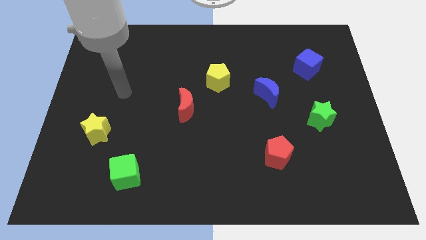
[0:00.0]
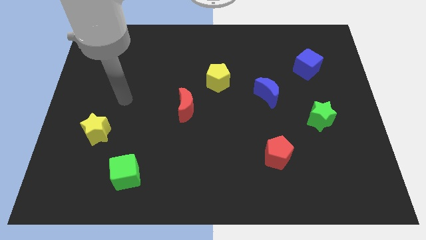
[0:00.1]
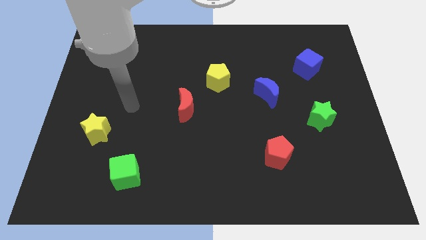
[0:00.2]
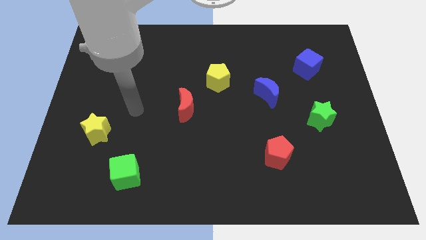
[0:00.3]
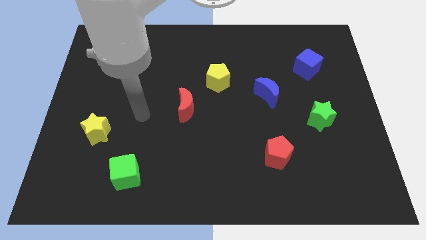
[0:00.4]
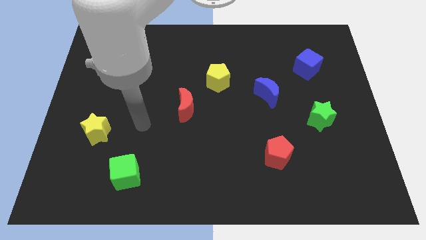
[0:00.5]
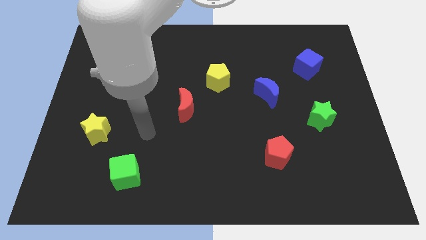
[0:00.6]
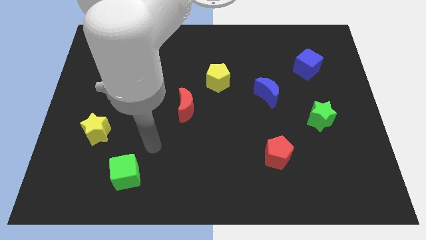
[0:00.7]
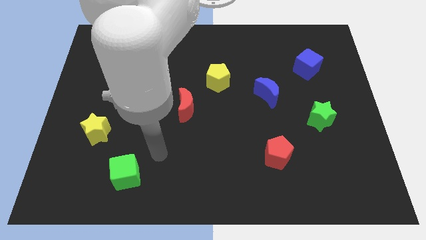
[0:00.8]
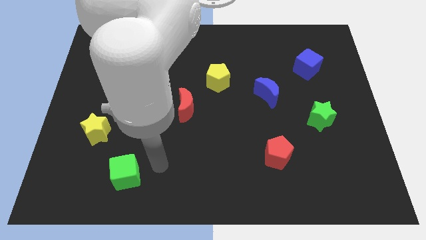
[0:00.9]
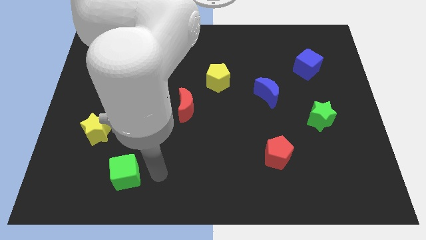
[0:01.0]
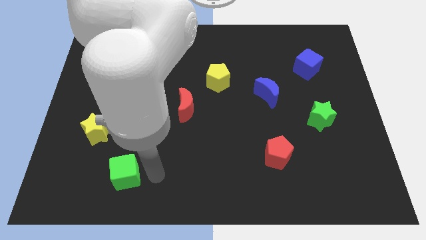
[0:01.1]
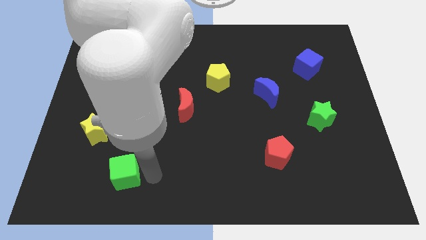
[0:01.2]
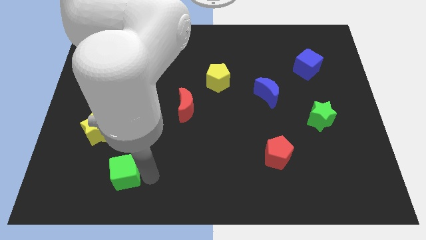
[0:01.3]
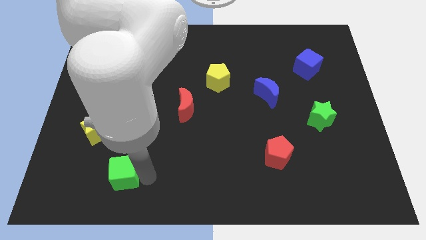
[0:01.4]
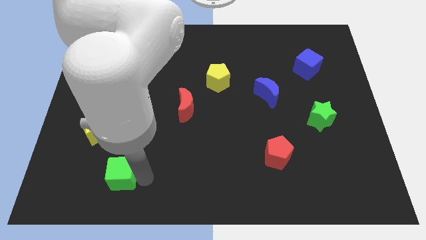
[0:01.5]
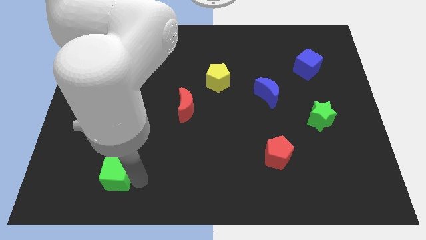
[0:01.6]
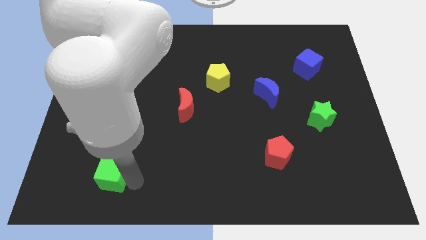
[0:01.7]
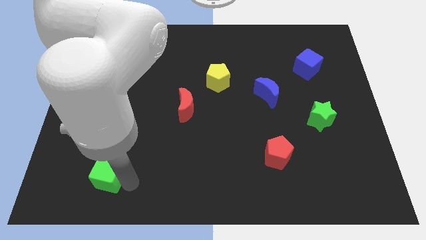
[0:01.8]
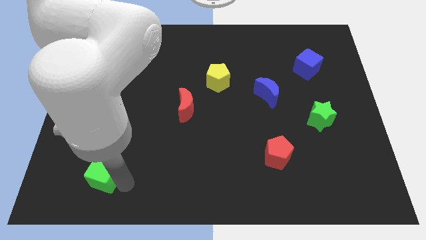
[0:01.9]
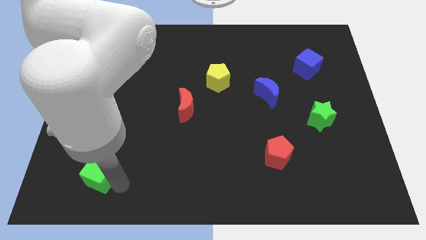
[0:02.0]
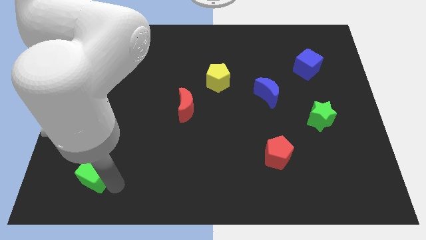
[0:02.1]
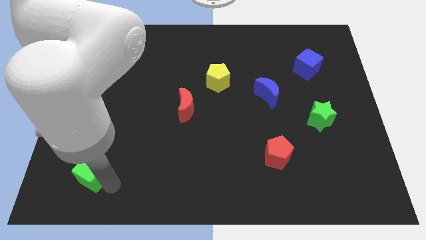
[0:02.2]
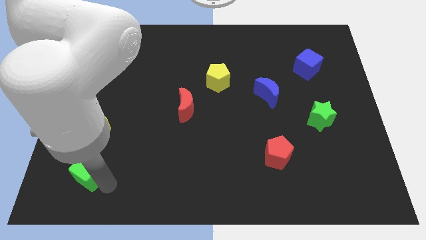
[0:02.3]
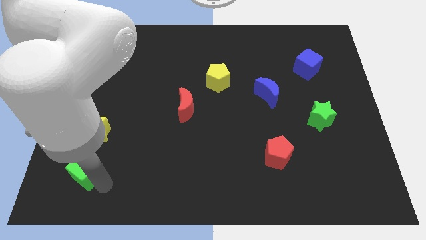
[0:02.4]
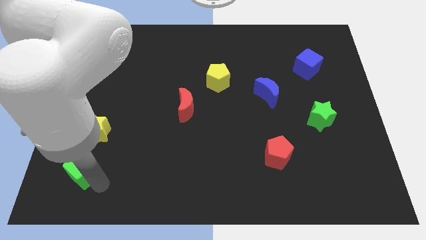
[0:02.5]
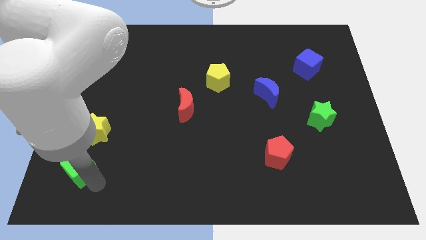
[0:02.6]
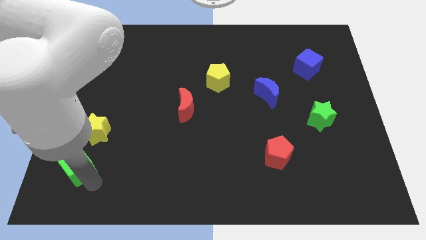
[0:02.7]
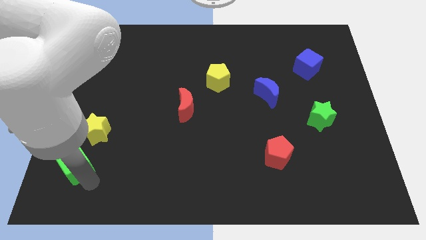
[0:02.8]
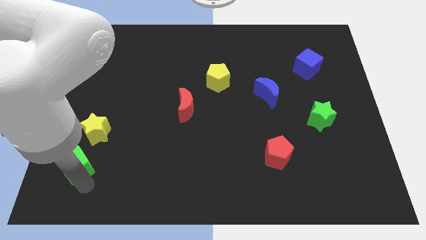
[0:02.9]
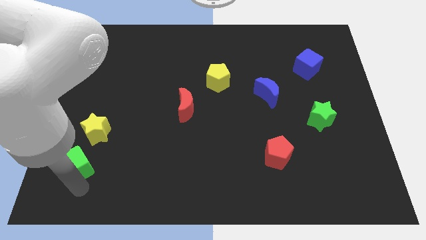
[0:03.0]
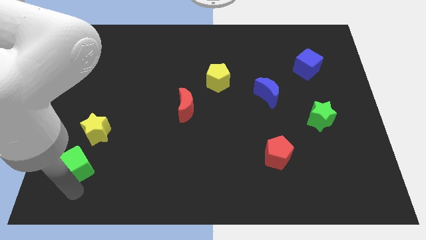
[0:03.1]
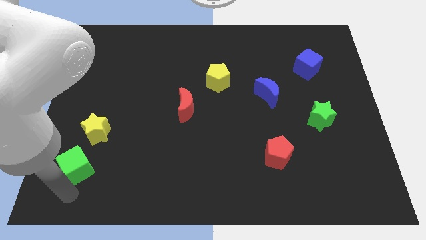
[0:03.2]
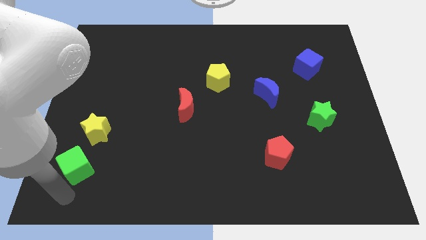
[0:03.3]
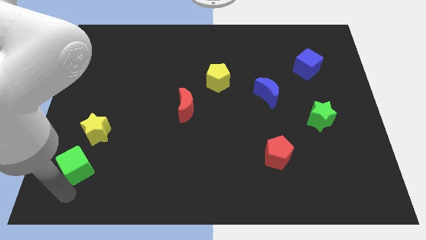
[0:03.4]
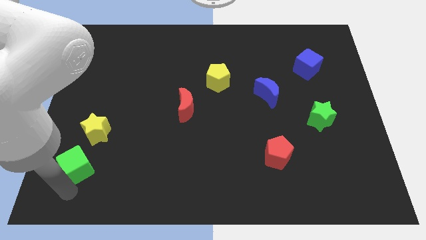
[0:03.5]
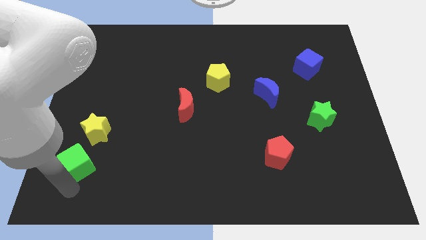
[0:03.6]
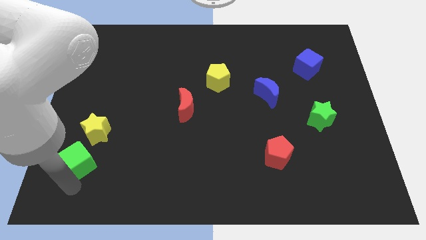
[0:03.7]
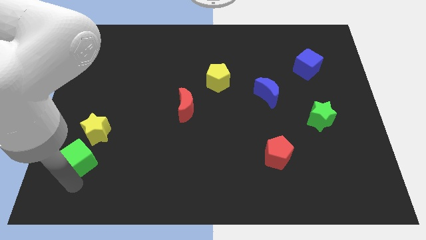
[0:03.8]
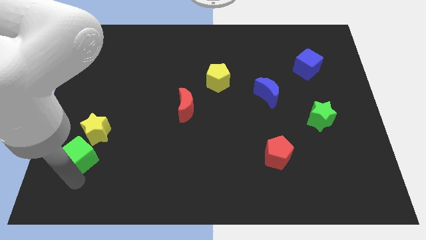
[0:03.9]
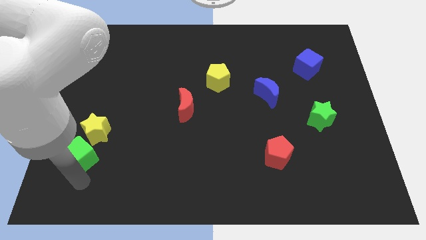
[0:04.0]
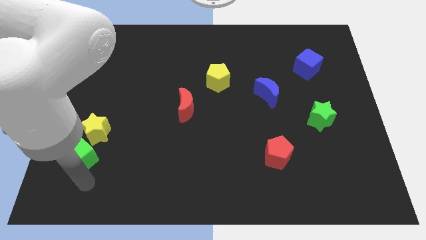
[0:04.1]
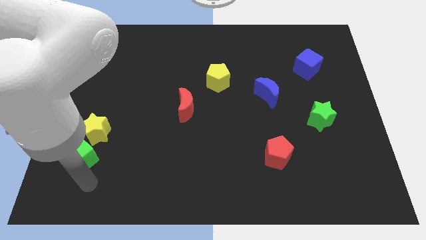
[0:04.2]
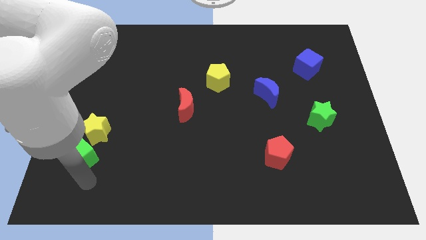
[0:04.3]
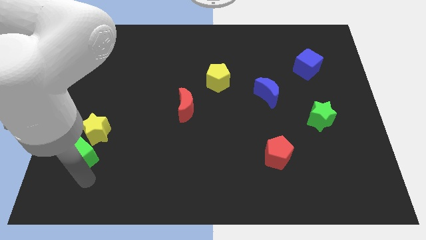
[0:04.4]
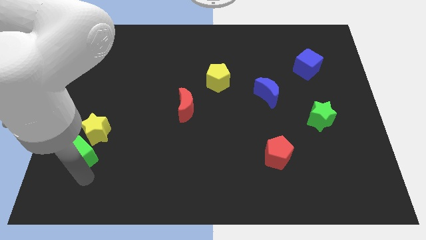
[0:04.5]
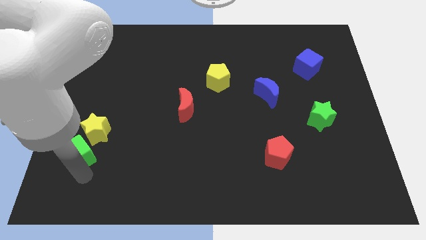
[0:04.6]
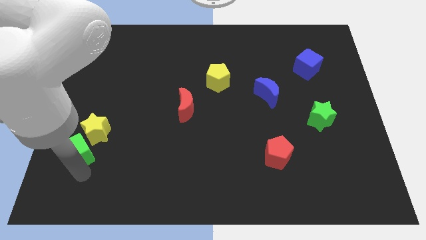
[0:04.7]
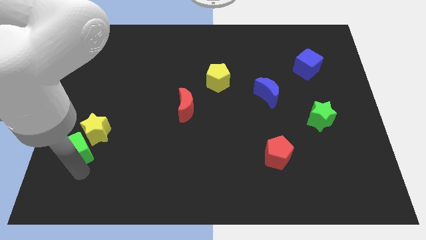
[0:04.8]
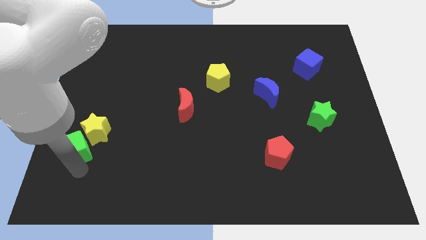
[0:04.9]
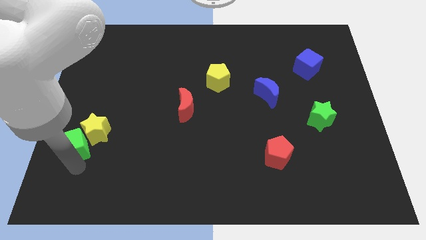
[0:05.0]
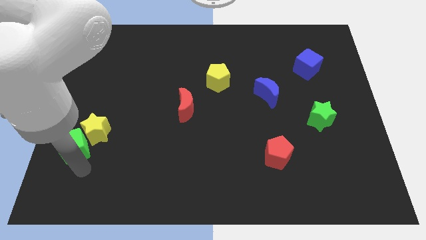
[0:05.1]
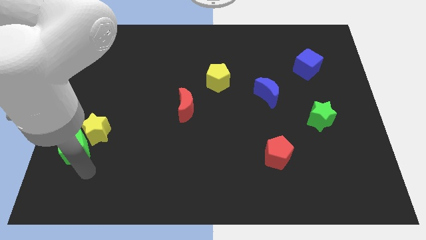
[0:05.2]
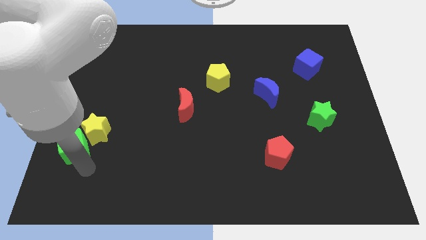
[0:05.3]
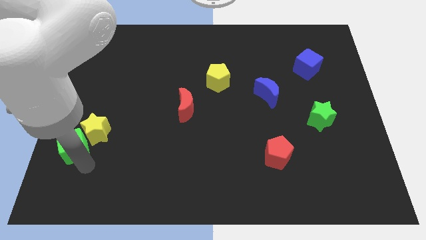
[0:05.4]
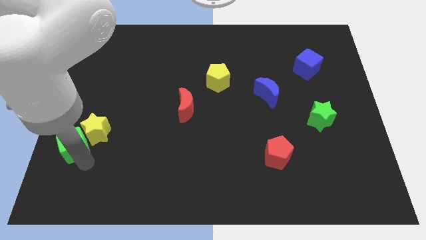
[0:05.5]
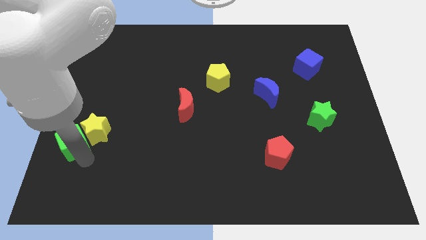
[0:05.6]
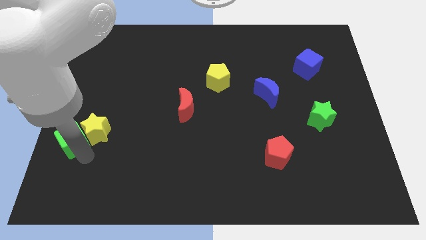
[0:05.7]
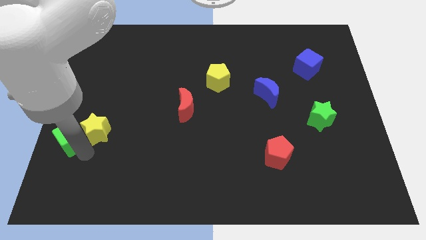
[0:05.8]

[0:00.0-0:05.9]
put the green cube to the left side of the board

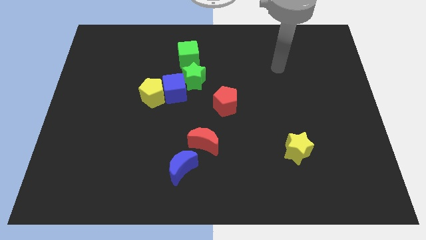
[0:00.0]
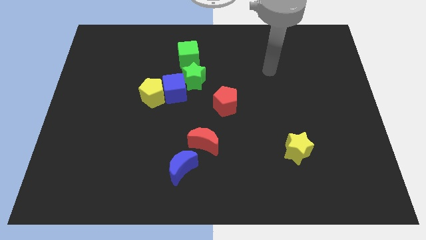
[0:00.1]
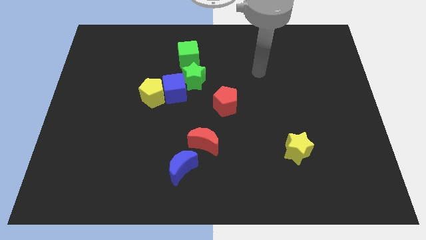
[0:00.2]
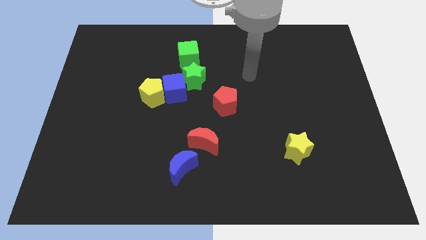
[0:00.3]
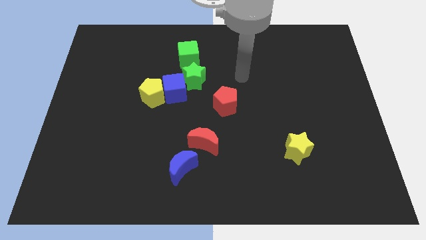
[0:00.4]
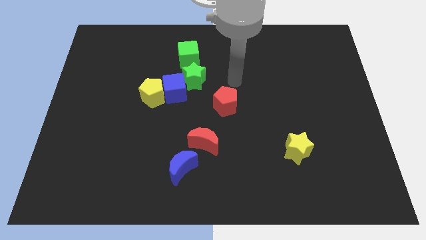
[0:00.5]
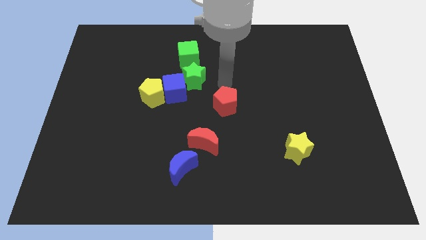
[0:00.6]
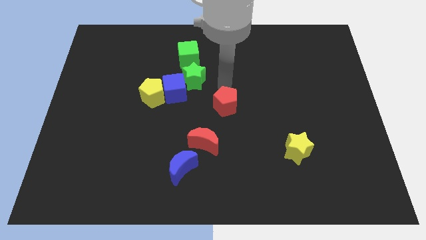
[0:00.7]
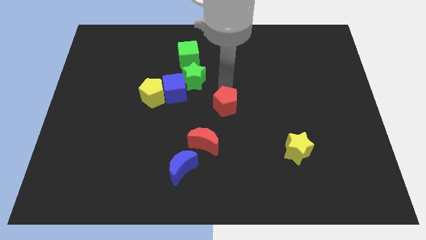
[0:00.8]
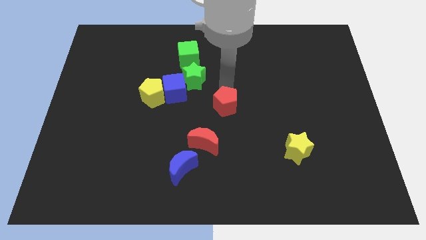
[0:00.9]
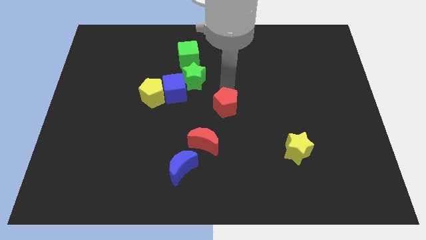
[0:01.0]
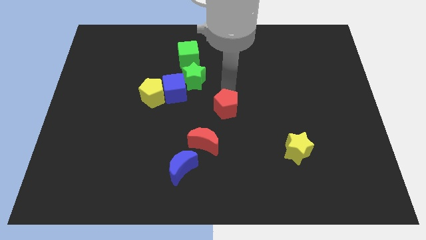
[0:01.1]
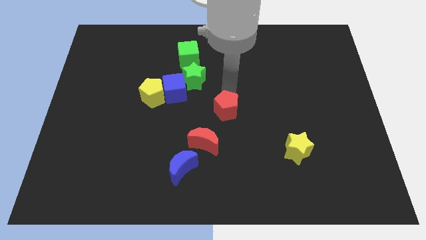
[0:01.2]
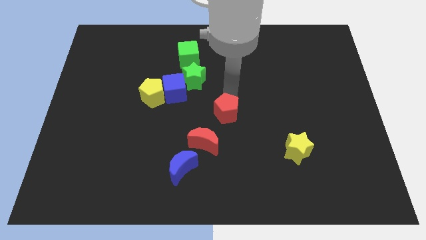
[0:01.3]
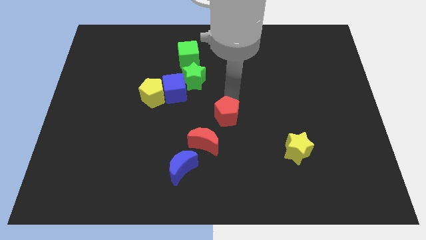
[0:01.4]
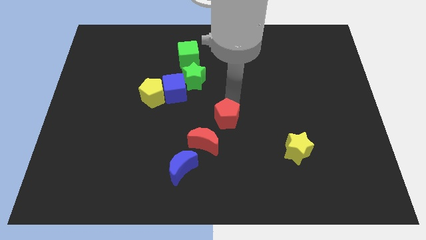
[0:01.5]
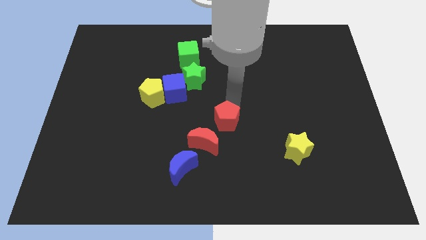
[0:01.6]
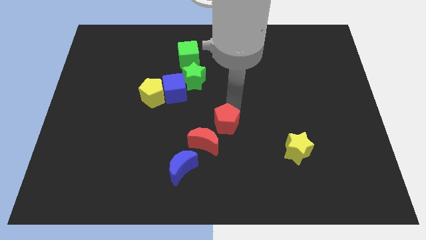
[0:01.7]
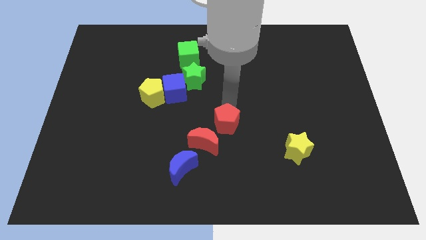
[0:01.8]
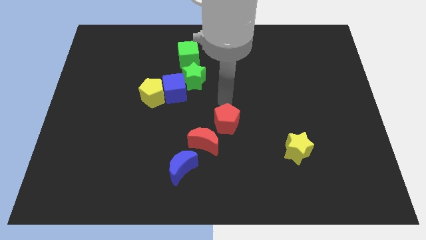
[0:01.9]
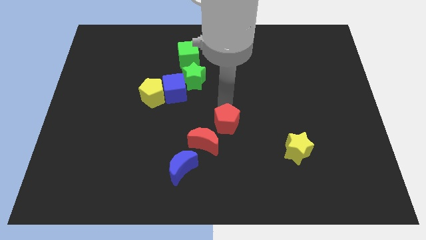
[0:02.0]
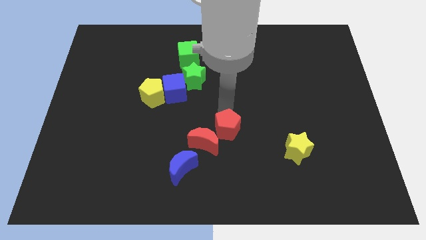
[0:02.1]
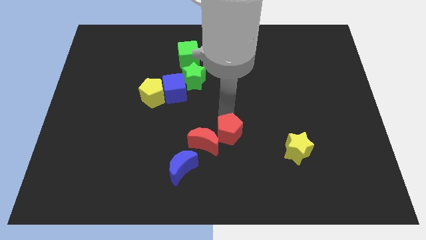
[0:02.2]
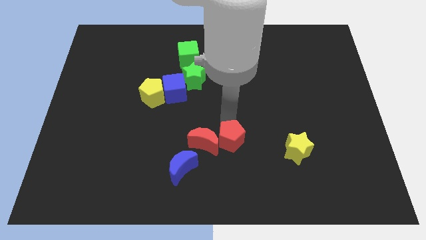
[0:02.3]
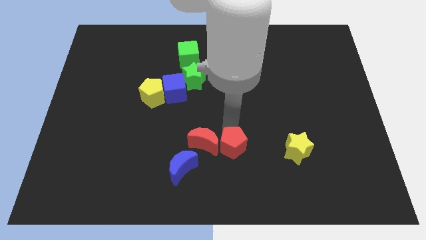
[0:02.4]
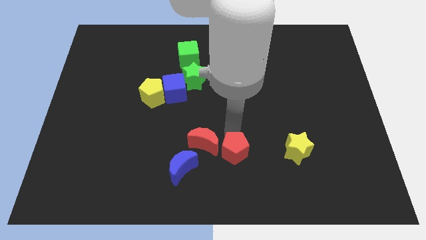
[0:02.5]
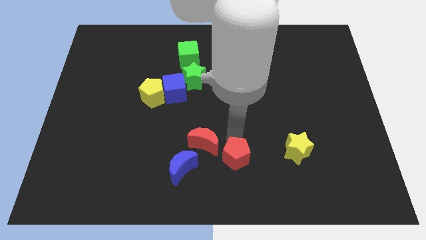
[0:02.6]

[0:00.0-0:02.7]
slide the red pentagon to the bottom side
